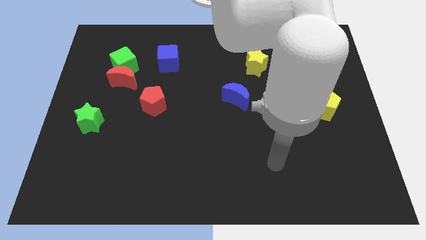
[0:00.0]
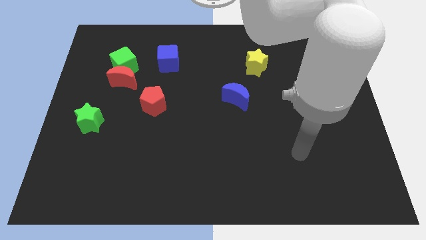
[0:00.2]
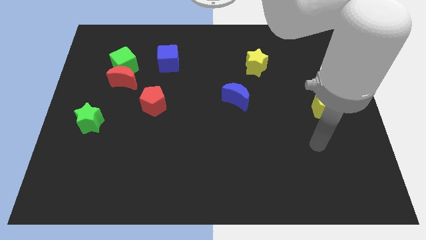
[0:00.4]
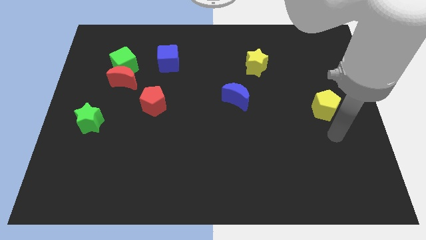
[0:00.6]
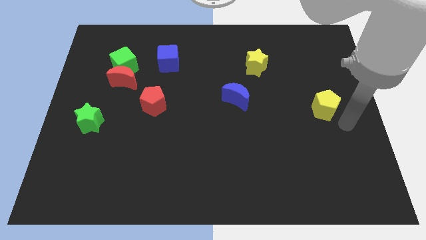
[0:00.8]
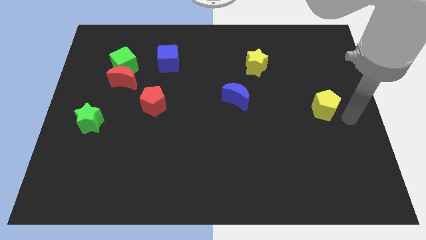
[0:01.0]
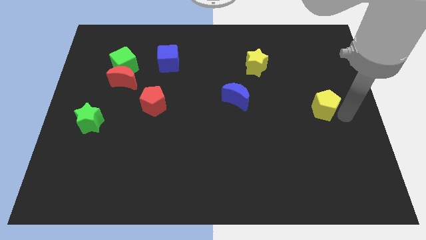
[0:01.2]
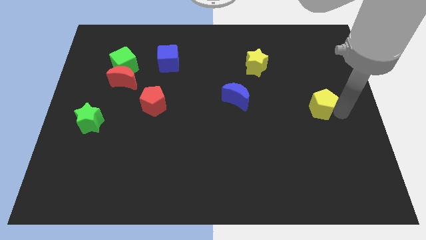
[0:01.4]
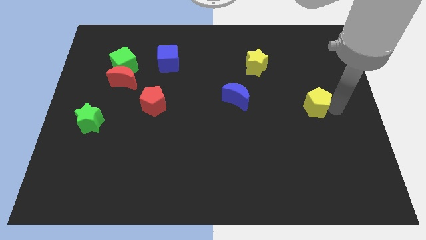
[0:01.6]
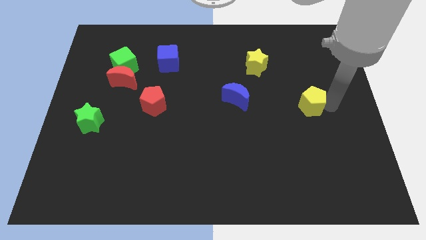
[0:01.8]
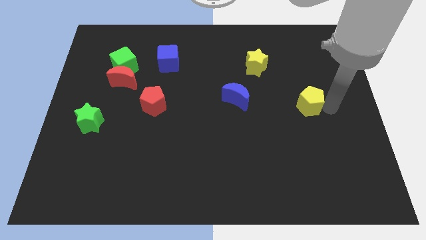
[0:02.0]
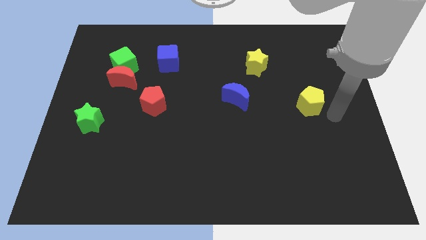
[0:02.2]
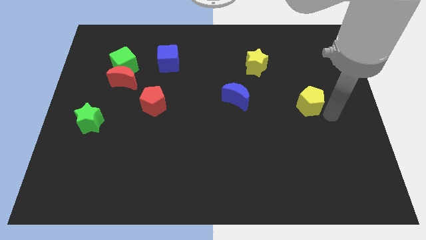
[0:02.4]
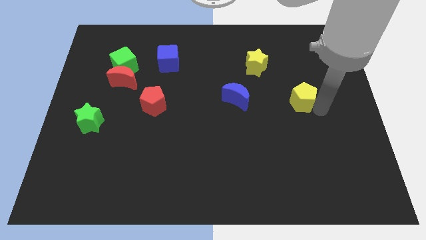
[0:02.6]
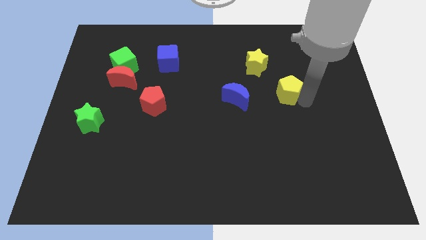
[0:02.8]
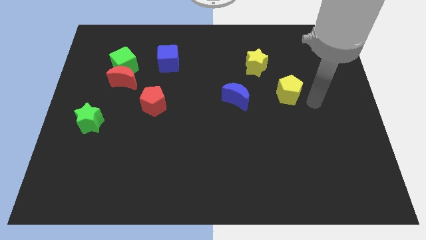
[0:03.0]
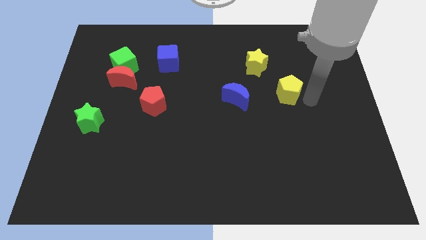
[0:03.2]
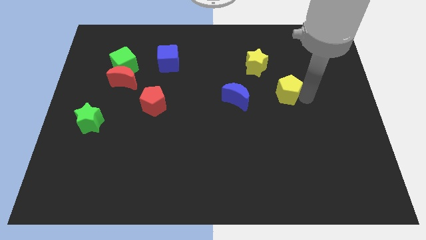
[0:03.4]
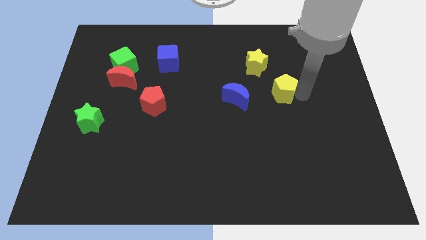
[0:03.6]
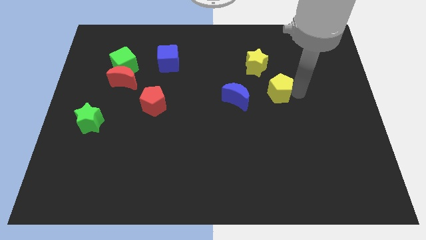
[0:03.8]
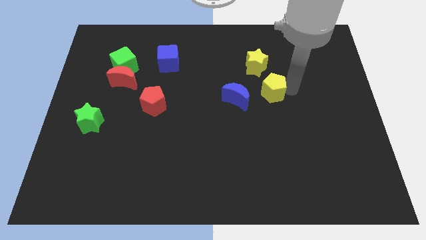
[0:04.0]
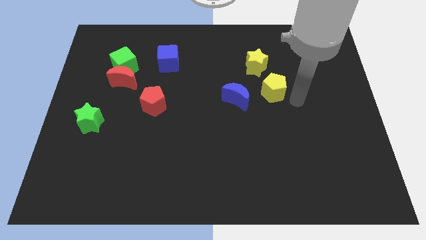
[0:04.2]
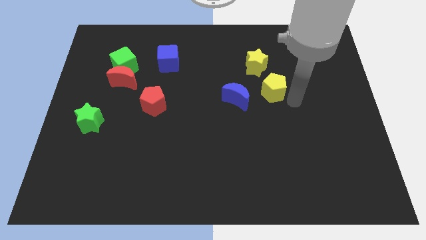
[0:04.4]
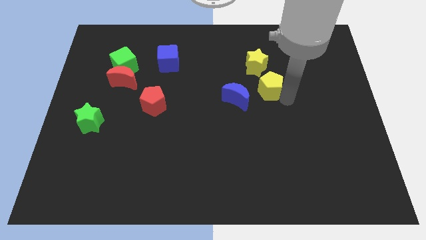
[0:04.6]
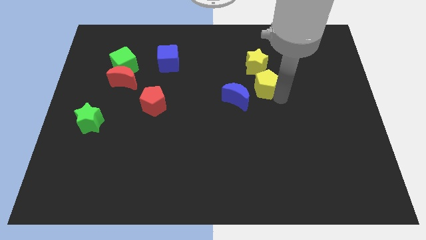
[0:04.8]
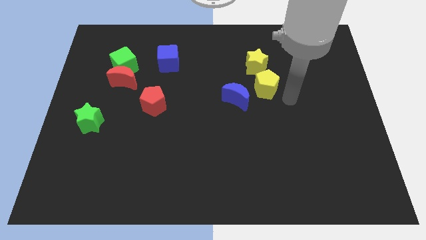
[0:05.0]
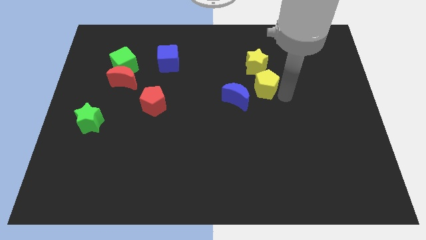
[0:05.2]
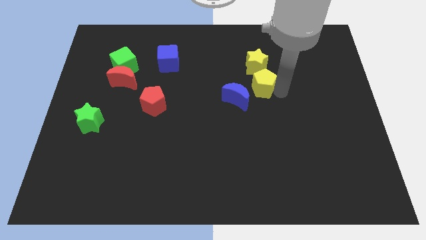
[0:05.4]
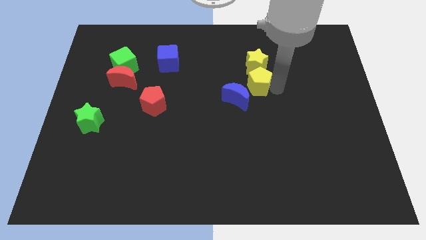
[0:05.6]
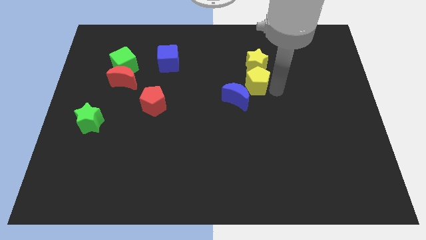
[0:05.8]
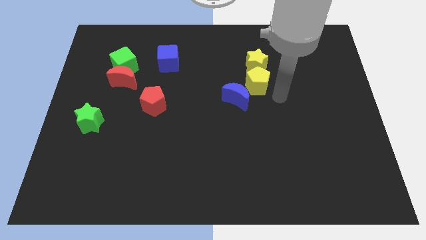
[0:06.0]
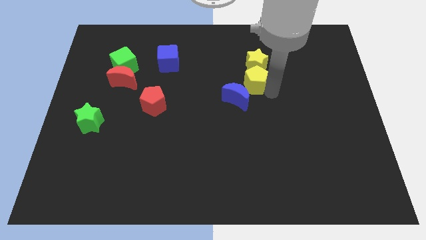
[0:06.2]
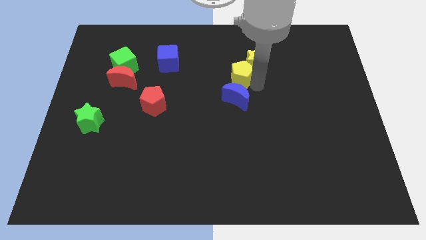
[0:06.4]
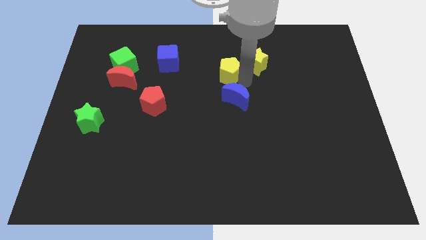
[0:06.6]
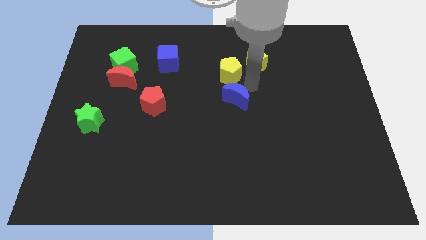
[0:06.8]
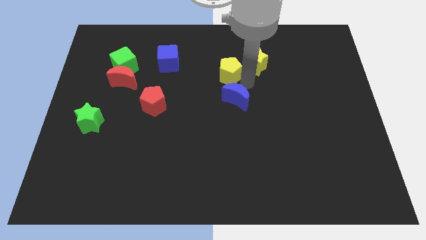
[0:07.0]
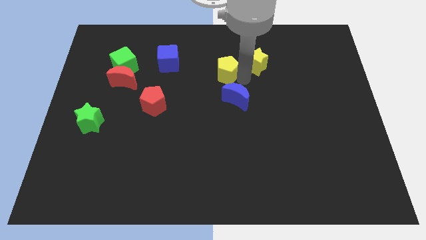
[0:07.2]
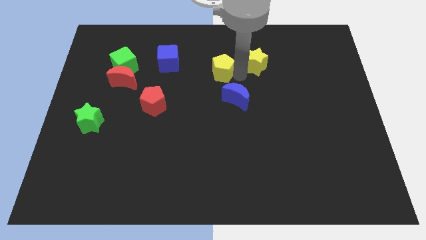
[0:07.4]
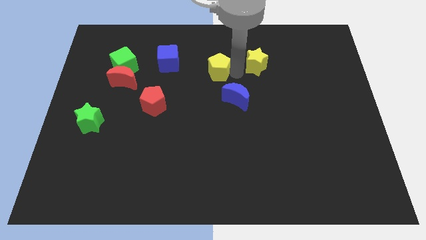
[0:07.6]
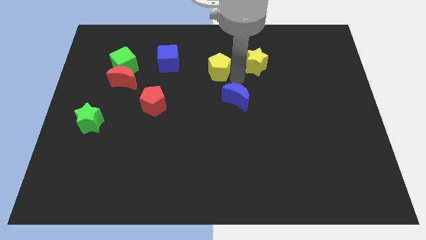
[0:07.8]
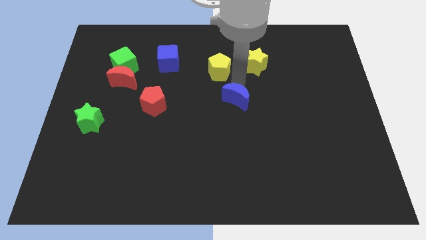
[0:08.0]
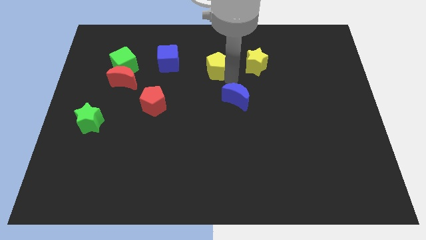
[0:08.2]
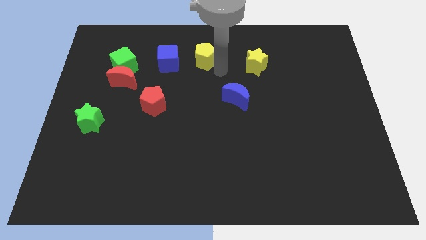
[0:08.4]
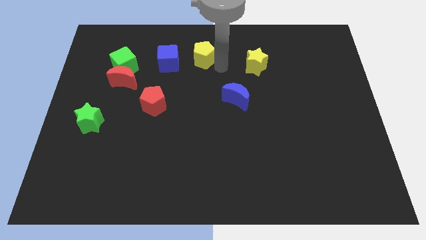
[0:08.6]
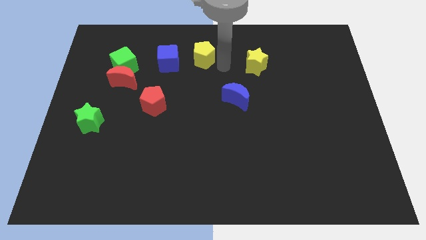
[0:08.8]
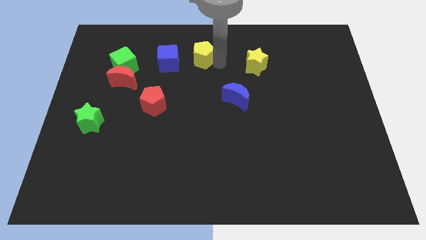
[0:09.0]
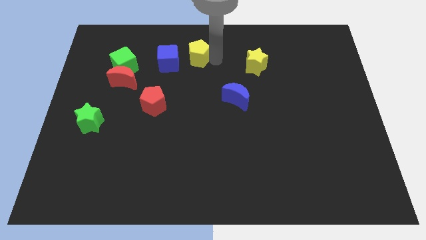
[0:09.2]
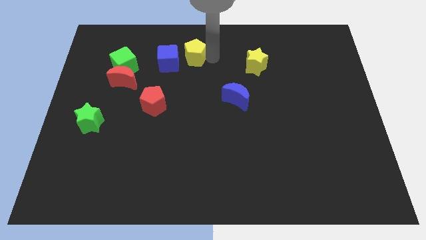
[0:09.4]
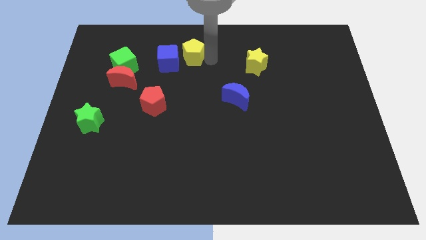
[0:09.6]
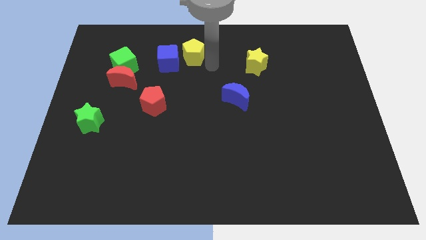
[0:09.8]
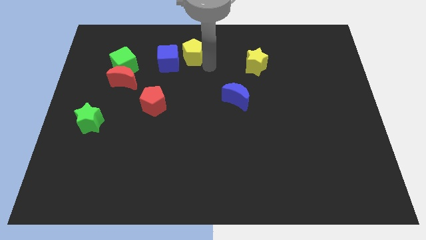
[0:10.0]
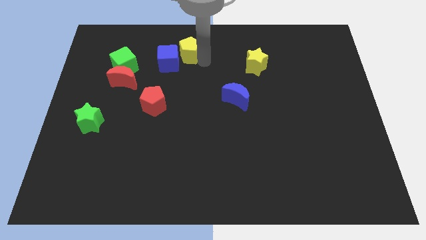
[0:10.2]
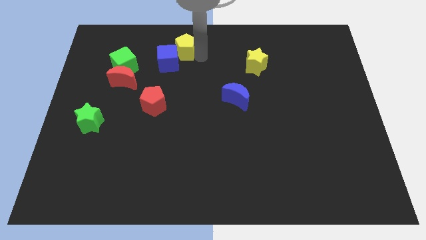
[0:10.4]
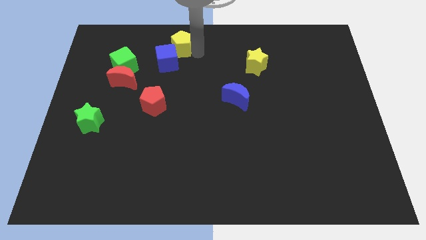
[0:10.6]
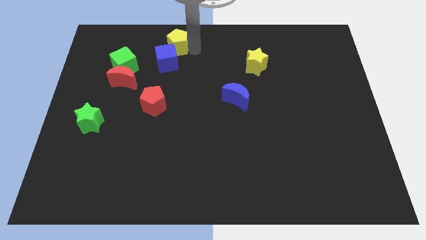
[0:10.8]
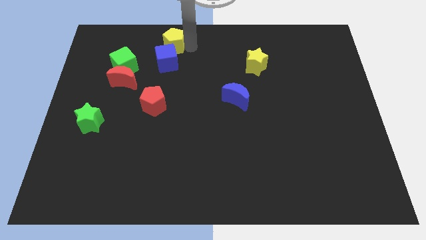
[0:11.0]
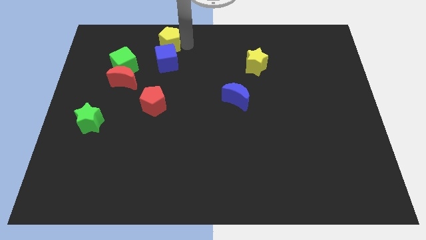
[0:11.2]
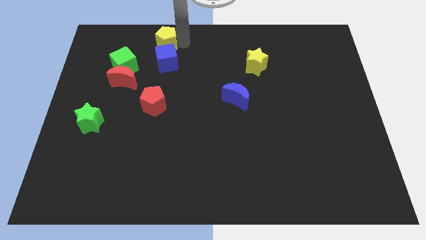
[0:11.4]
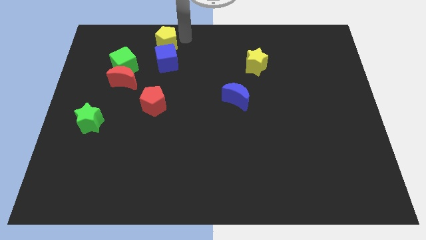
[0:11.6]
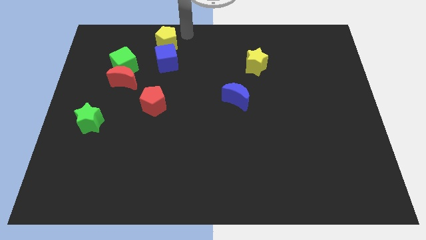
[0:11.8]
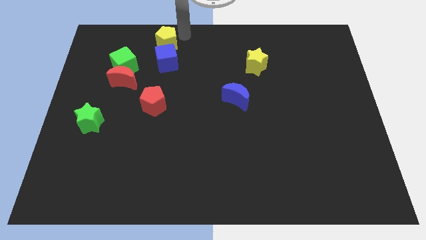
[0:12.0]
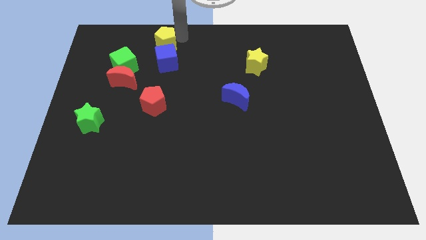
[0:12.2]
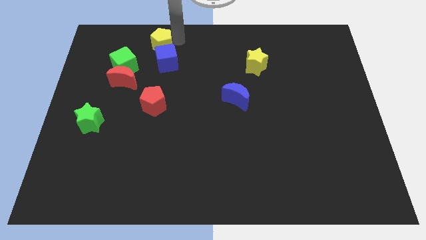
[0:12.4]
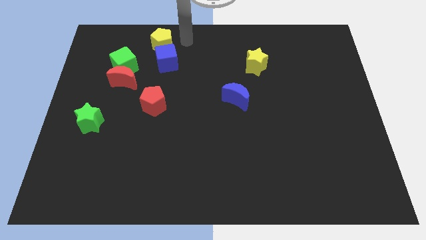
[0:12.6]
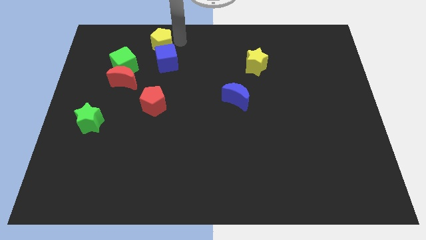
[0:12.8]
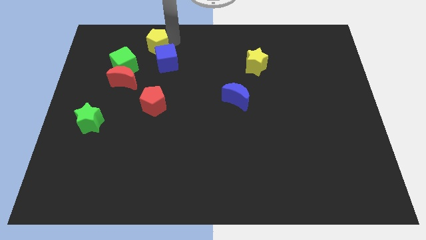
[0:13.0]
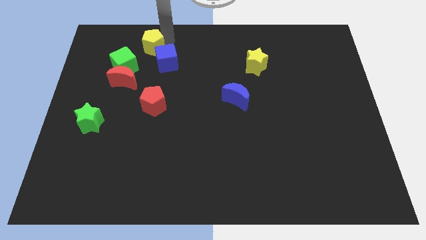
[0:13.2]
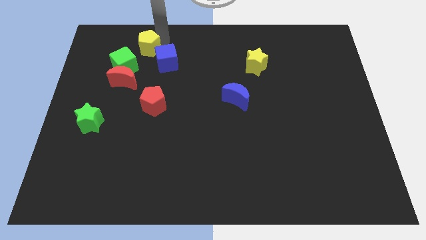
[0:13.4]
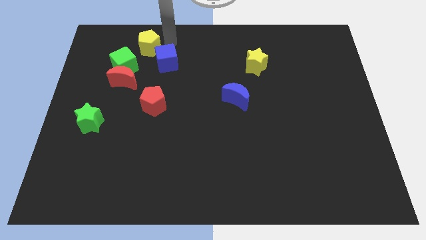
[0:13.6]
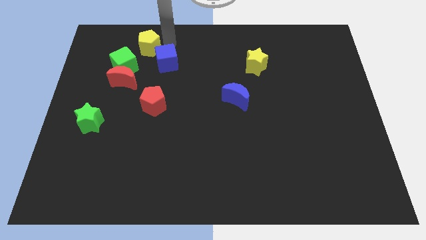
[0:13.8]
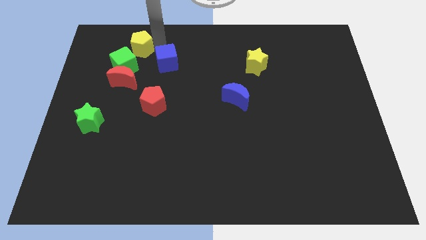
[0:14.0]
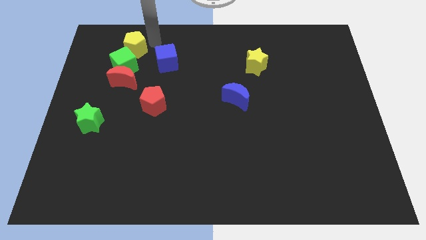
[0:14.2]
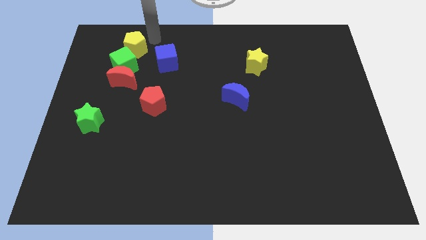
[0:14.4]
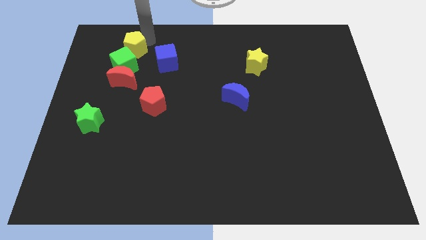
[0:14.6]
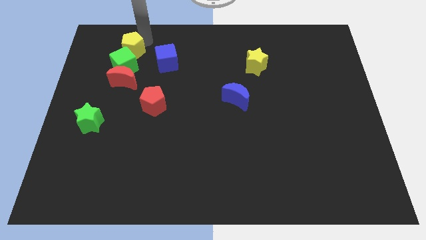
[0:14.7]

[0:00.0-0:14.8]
put the yellow pentagon just left of the blue cube
